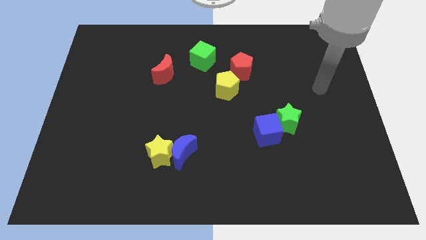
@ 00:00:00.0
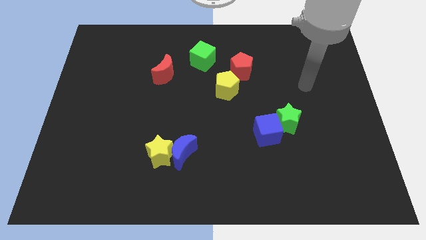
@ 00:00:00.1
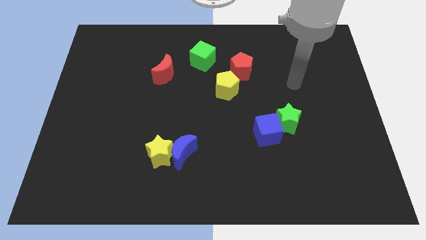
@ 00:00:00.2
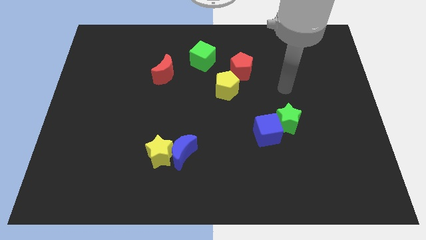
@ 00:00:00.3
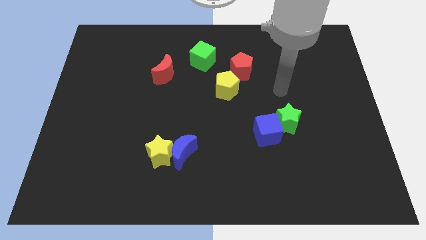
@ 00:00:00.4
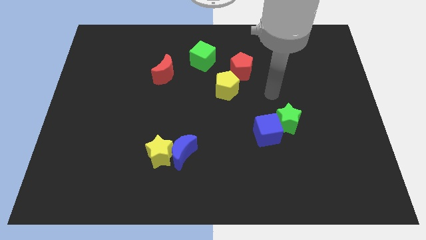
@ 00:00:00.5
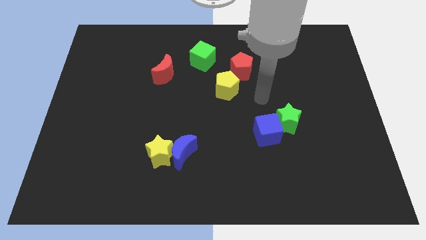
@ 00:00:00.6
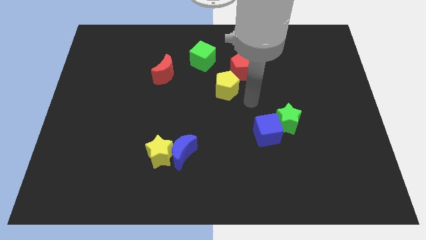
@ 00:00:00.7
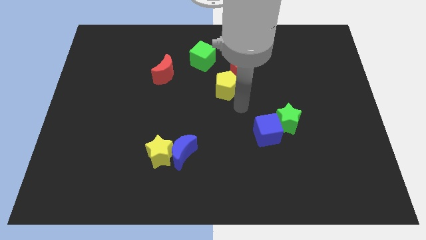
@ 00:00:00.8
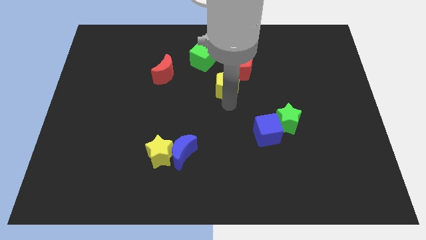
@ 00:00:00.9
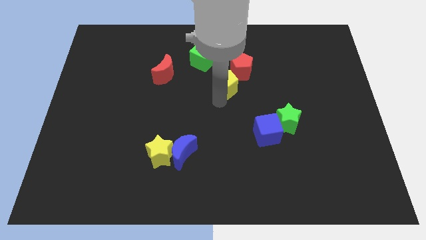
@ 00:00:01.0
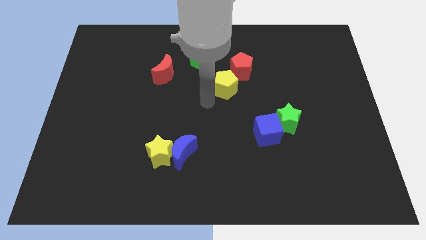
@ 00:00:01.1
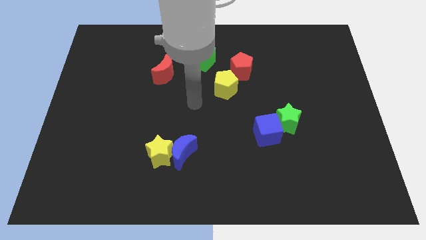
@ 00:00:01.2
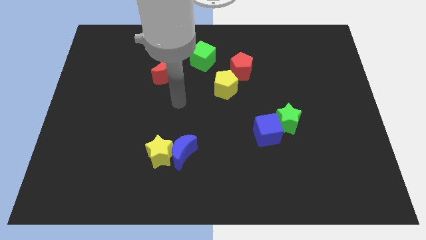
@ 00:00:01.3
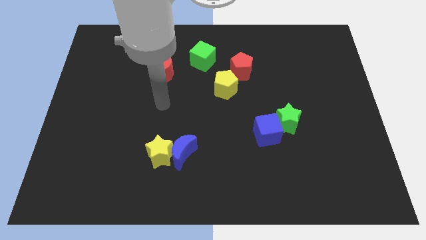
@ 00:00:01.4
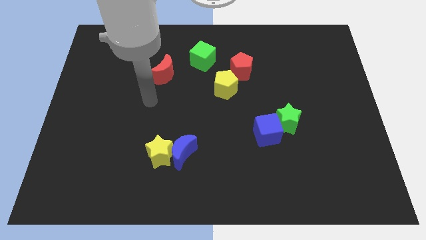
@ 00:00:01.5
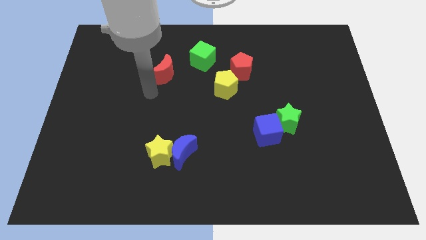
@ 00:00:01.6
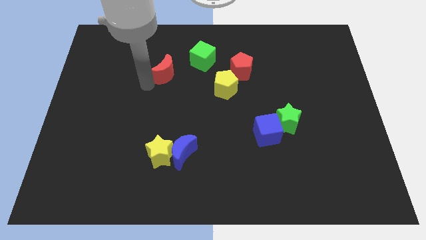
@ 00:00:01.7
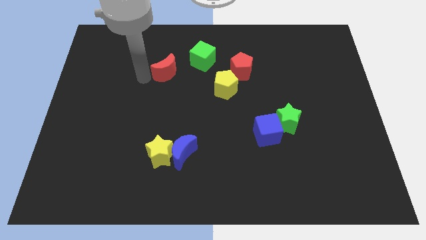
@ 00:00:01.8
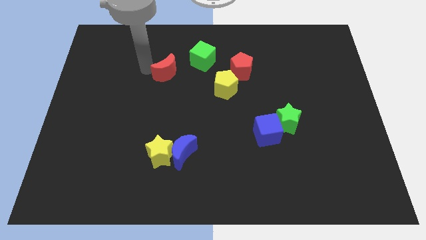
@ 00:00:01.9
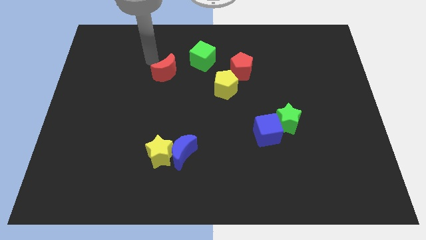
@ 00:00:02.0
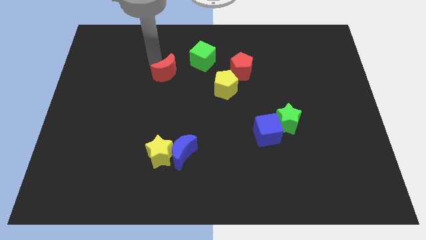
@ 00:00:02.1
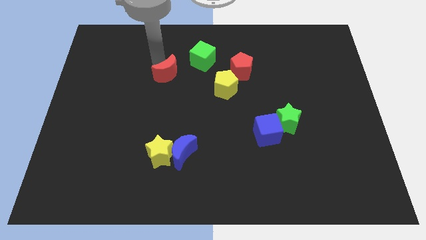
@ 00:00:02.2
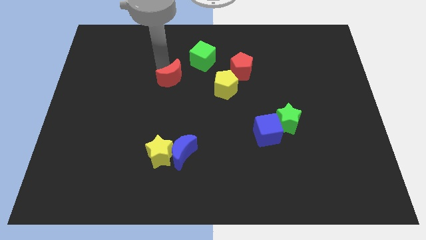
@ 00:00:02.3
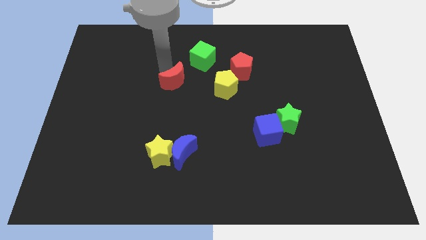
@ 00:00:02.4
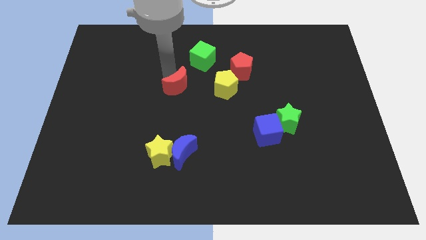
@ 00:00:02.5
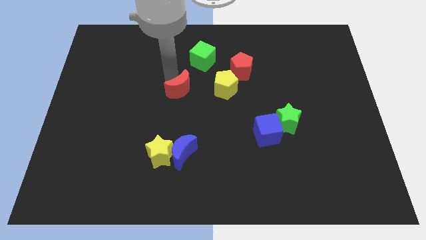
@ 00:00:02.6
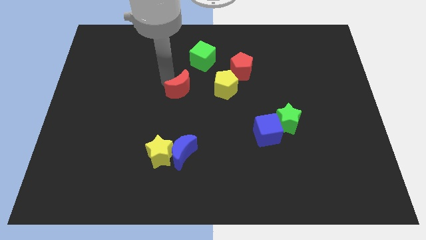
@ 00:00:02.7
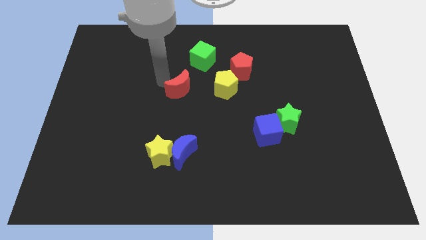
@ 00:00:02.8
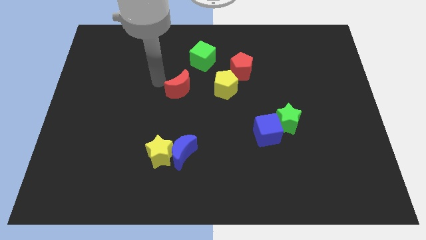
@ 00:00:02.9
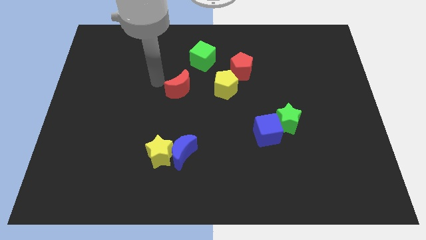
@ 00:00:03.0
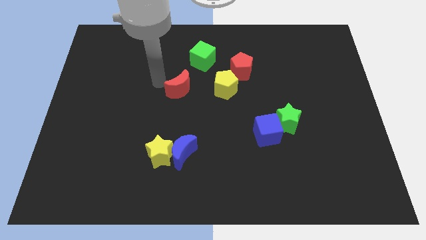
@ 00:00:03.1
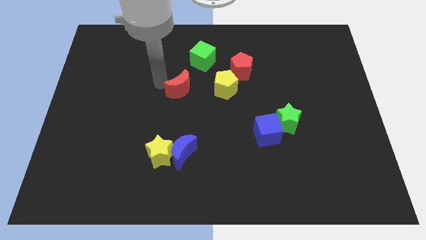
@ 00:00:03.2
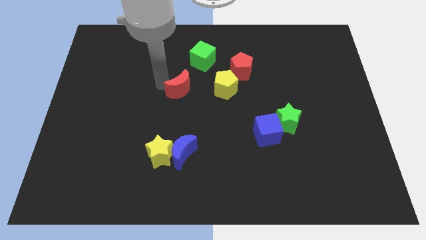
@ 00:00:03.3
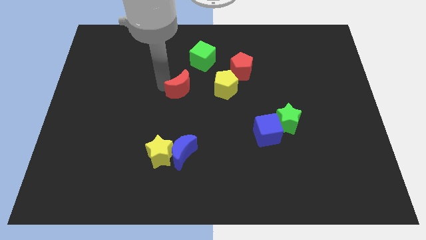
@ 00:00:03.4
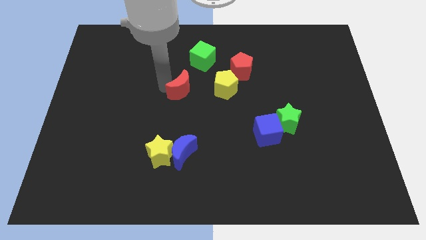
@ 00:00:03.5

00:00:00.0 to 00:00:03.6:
slightly push the red moon diagonally down and to the right

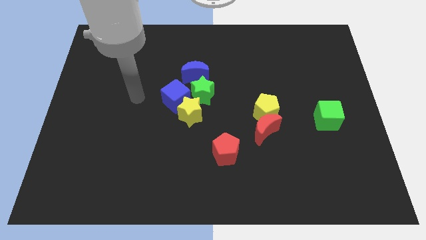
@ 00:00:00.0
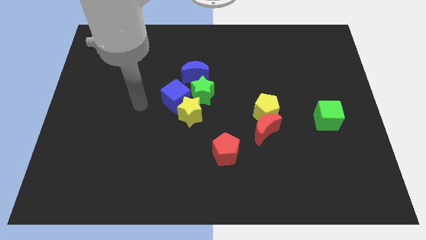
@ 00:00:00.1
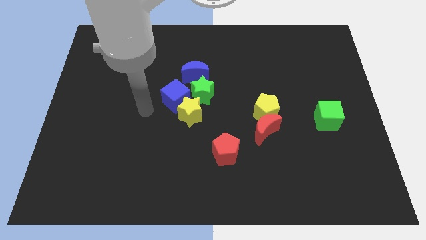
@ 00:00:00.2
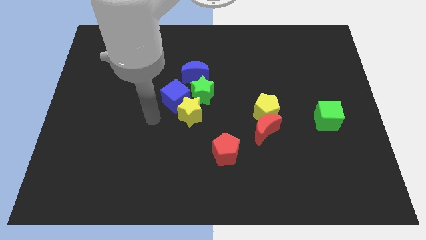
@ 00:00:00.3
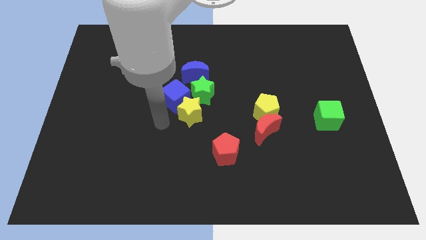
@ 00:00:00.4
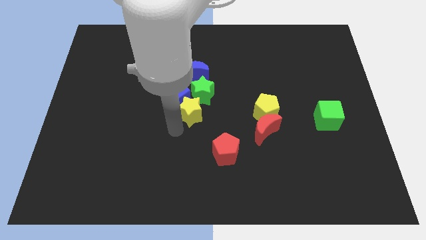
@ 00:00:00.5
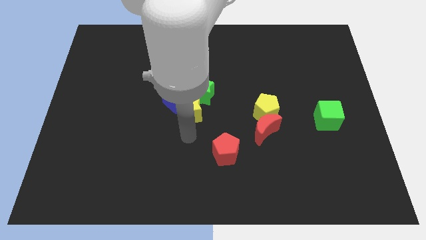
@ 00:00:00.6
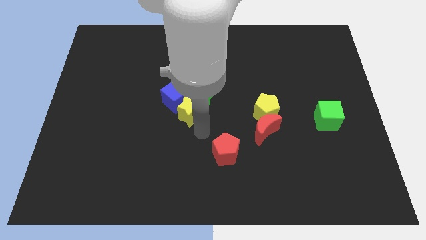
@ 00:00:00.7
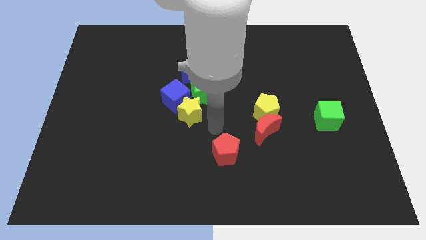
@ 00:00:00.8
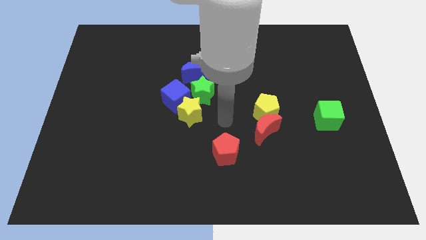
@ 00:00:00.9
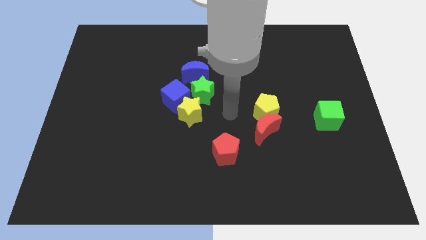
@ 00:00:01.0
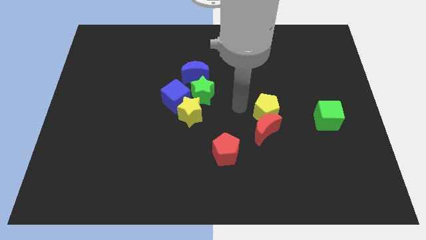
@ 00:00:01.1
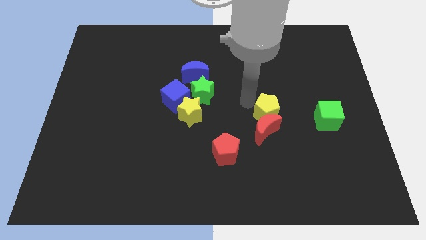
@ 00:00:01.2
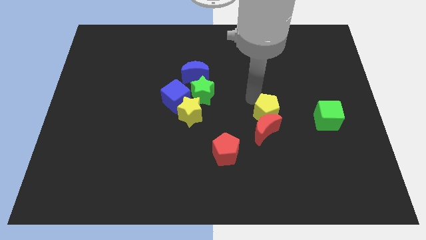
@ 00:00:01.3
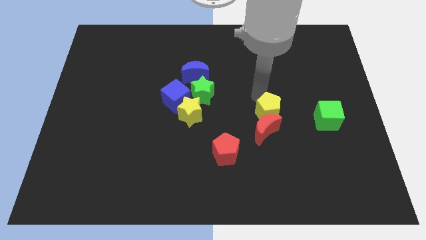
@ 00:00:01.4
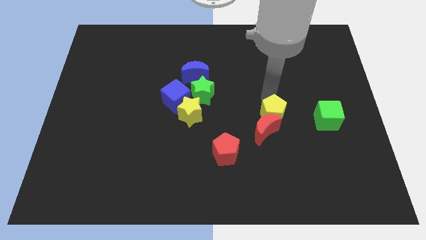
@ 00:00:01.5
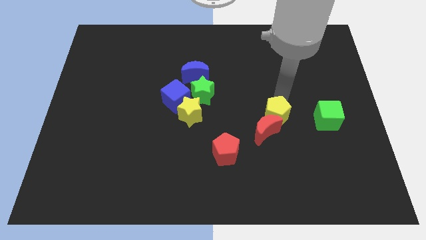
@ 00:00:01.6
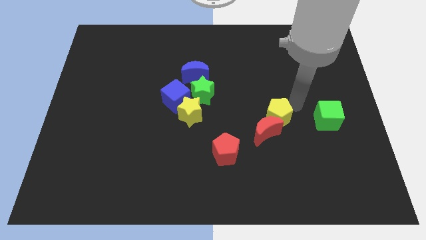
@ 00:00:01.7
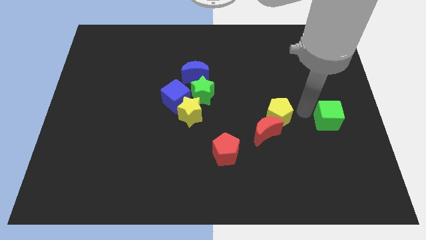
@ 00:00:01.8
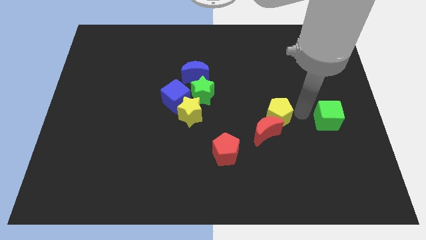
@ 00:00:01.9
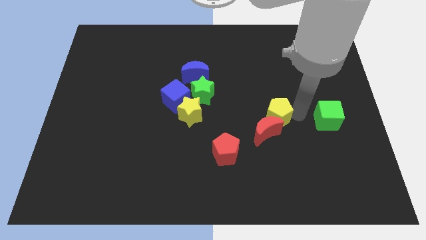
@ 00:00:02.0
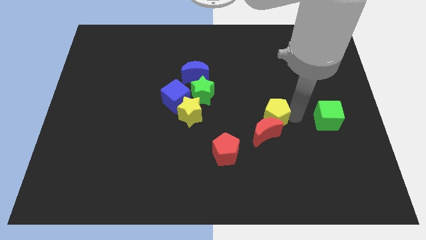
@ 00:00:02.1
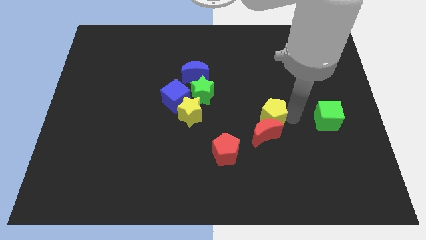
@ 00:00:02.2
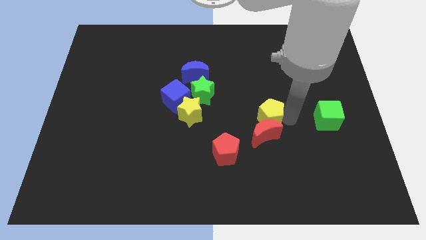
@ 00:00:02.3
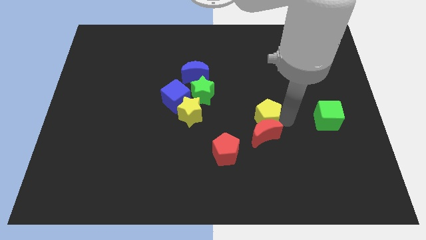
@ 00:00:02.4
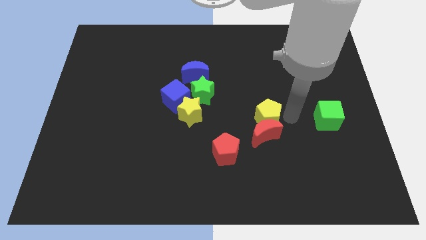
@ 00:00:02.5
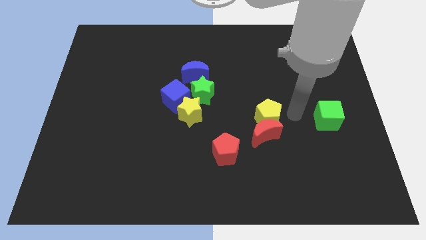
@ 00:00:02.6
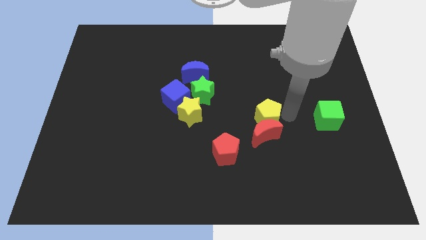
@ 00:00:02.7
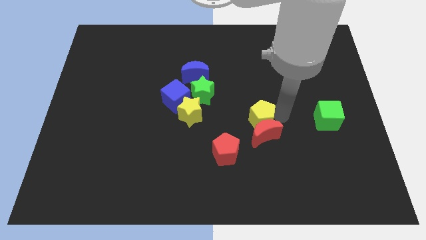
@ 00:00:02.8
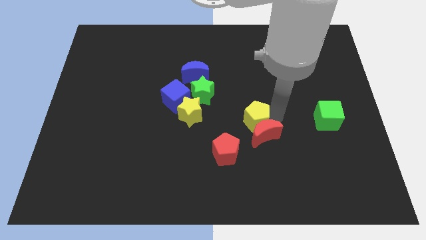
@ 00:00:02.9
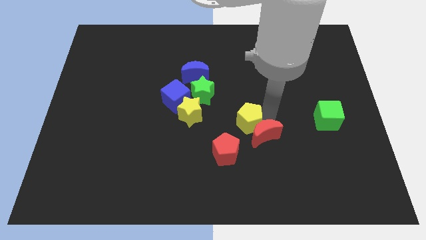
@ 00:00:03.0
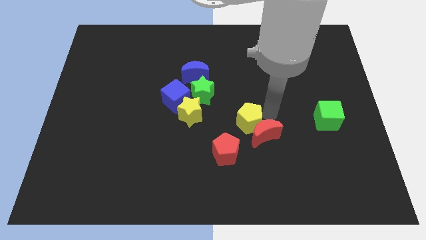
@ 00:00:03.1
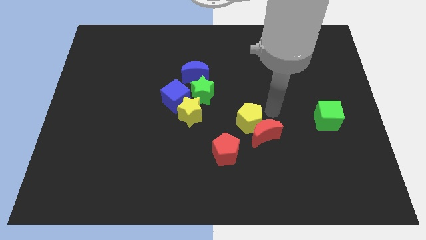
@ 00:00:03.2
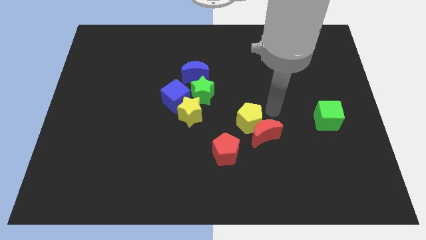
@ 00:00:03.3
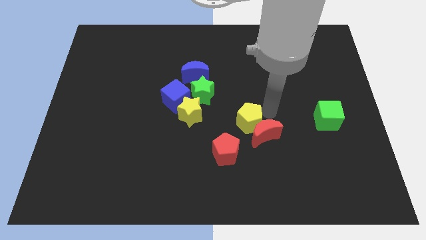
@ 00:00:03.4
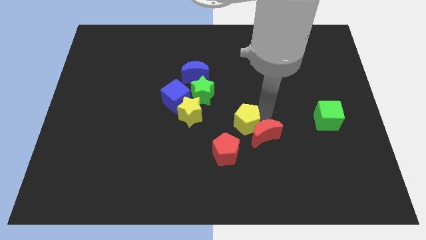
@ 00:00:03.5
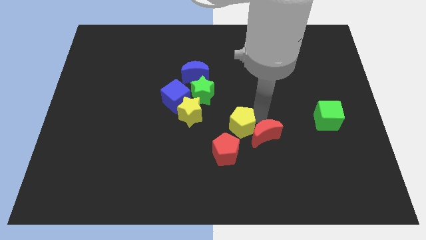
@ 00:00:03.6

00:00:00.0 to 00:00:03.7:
slightly move the yellow pentagon downwards and to the left

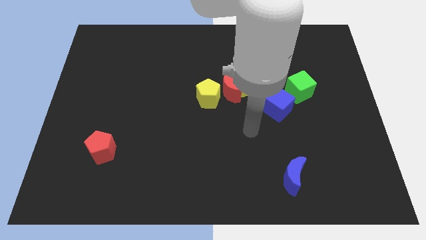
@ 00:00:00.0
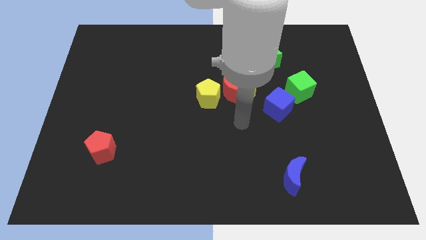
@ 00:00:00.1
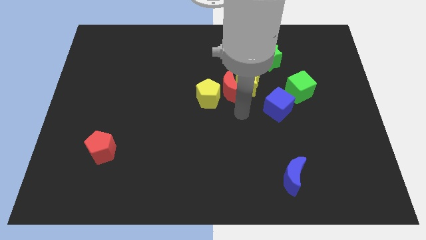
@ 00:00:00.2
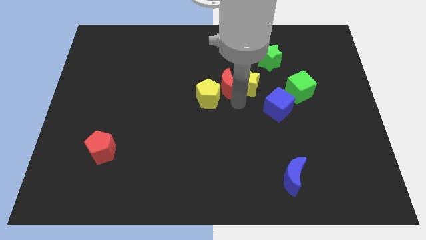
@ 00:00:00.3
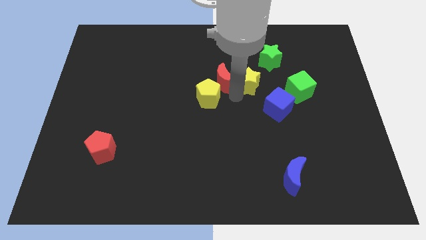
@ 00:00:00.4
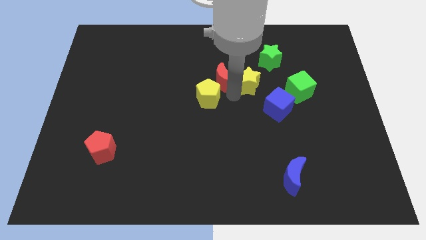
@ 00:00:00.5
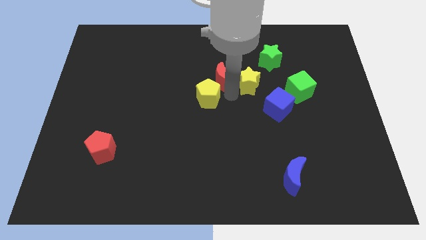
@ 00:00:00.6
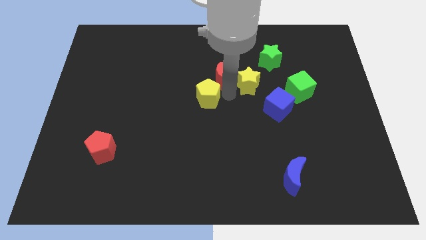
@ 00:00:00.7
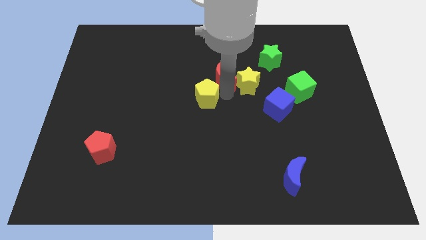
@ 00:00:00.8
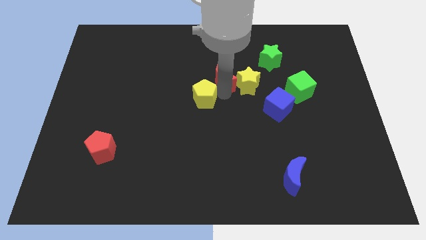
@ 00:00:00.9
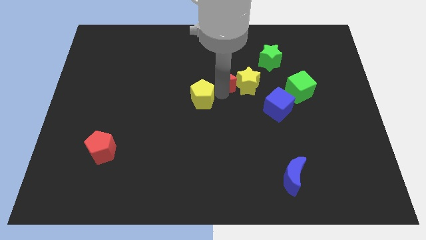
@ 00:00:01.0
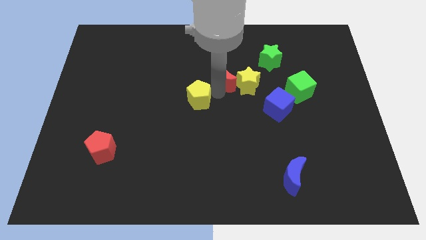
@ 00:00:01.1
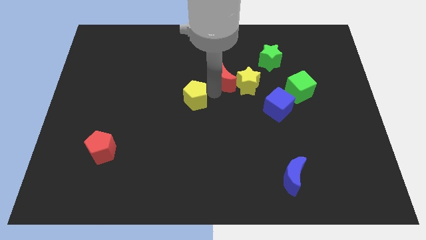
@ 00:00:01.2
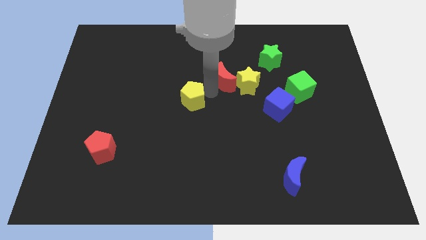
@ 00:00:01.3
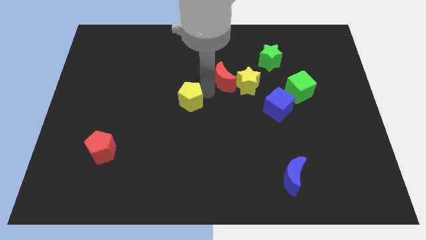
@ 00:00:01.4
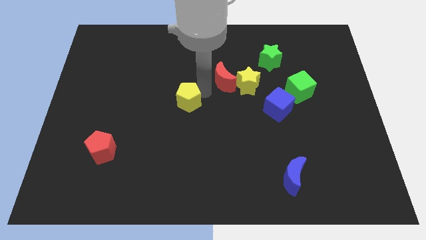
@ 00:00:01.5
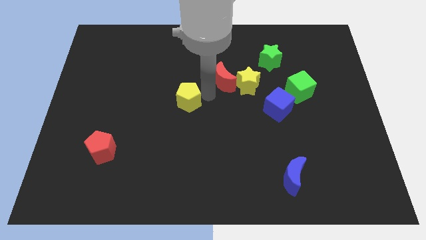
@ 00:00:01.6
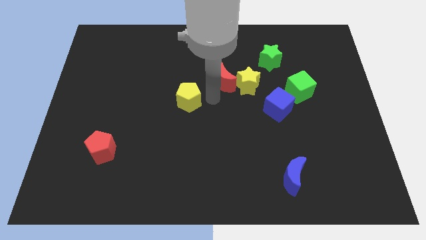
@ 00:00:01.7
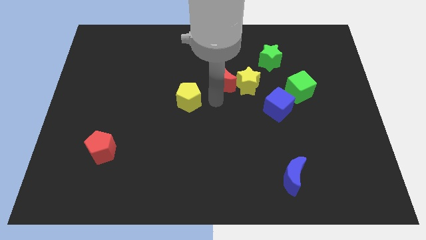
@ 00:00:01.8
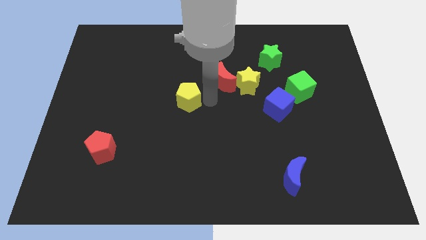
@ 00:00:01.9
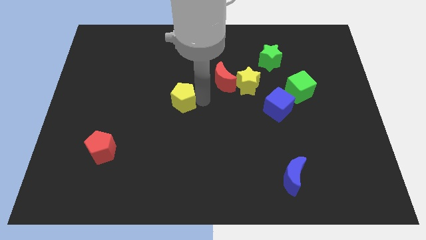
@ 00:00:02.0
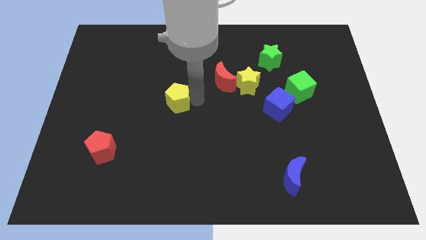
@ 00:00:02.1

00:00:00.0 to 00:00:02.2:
slightly move the yellow pentagon to the left
